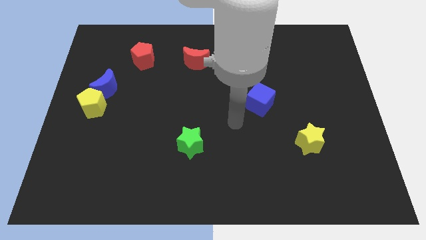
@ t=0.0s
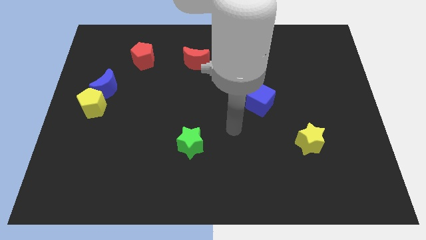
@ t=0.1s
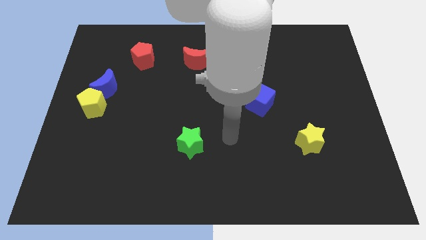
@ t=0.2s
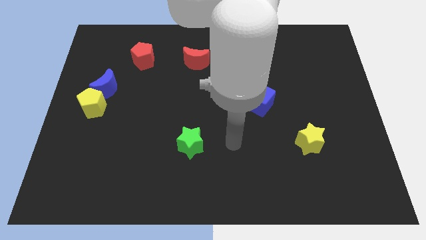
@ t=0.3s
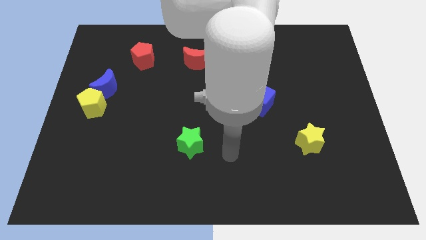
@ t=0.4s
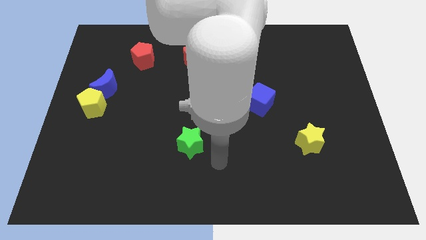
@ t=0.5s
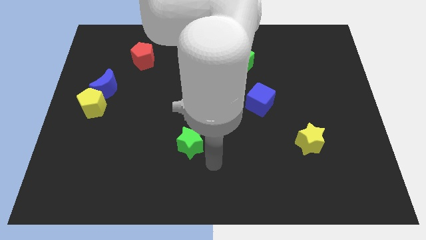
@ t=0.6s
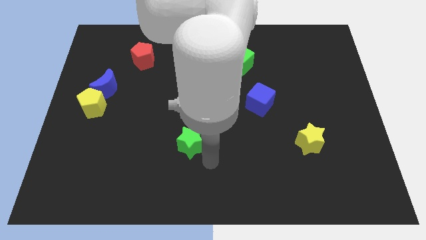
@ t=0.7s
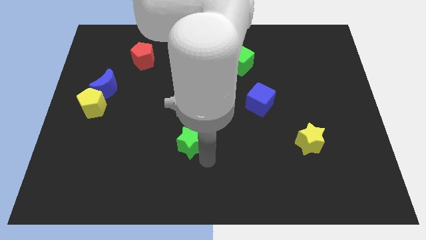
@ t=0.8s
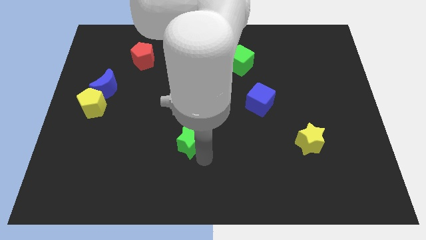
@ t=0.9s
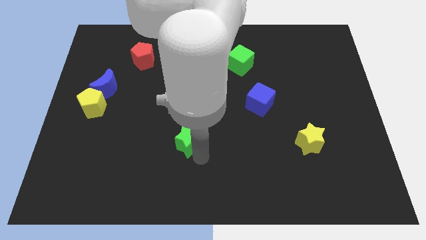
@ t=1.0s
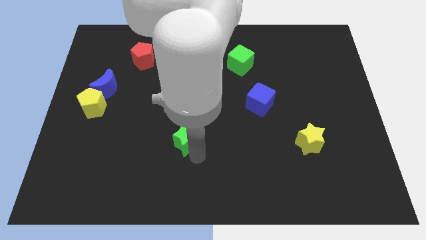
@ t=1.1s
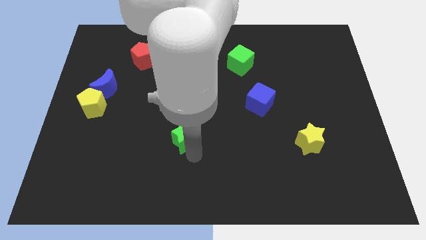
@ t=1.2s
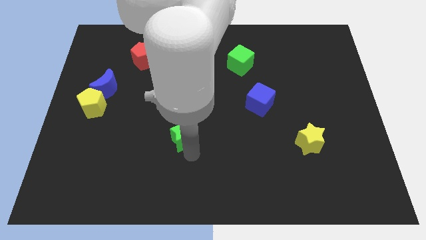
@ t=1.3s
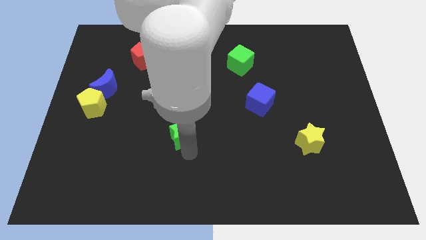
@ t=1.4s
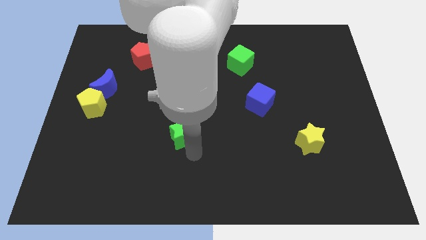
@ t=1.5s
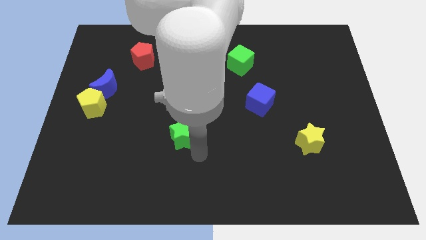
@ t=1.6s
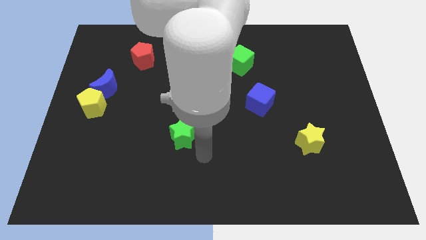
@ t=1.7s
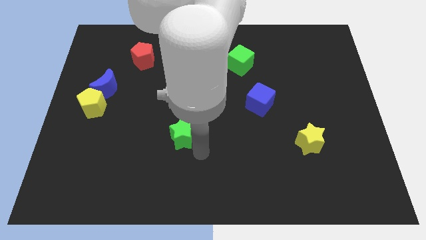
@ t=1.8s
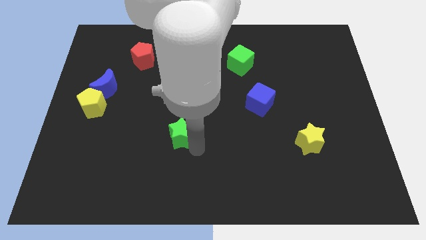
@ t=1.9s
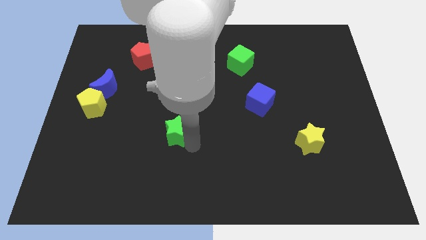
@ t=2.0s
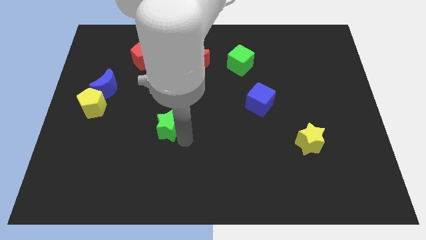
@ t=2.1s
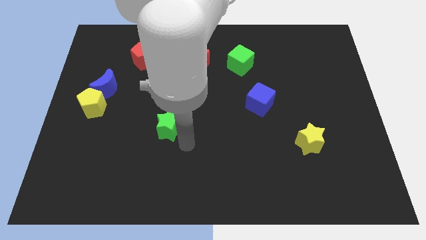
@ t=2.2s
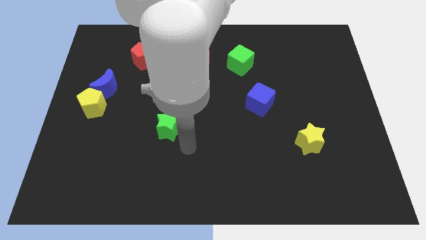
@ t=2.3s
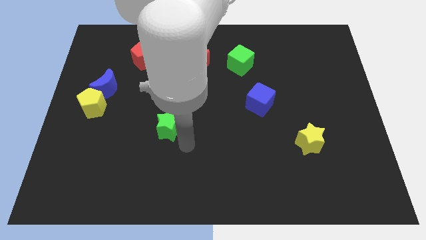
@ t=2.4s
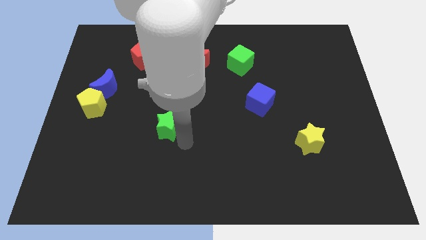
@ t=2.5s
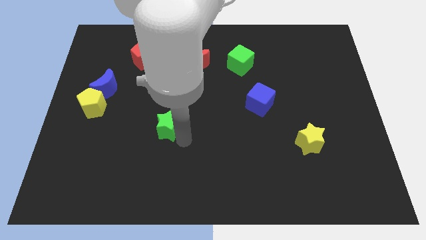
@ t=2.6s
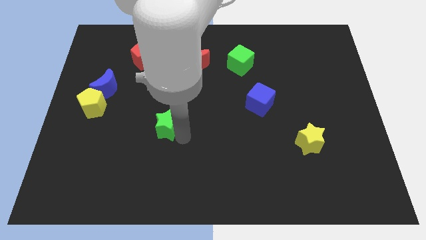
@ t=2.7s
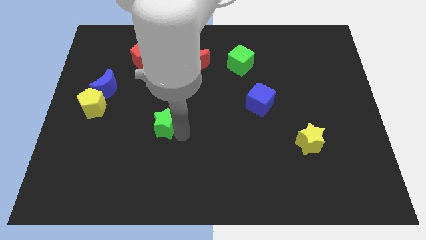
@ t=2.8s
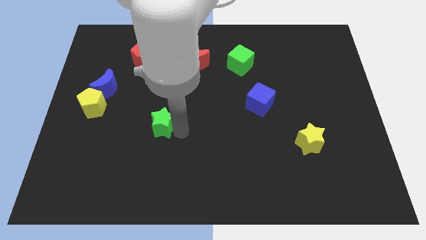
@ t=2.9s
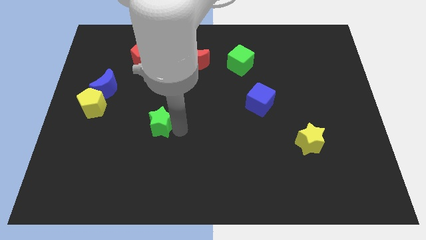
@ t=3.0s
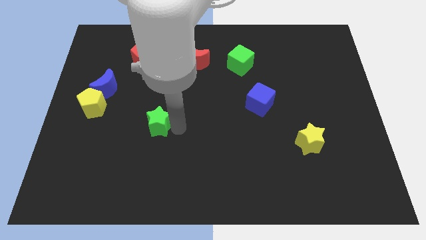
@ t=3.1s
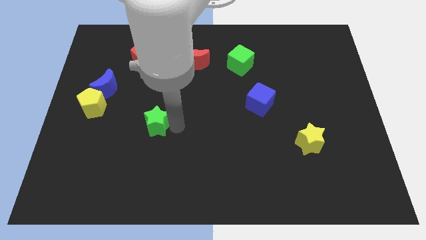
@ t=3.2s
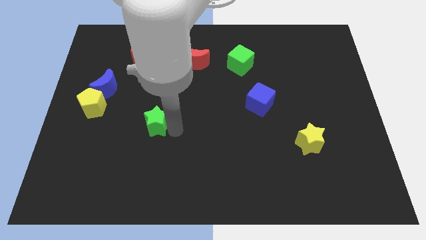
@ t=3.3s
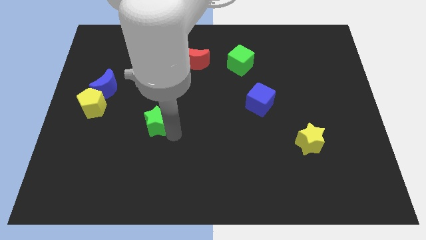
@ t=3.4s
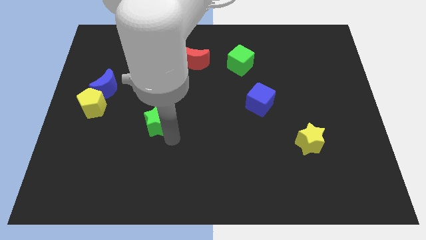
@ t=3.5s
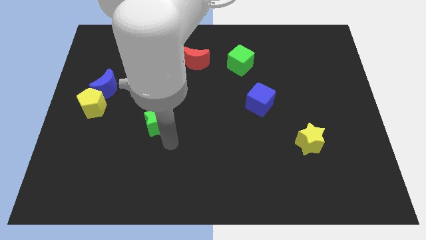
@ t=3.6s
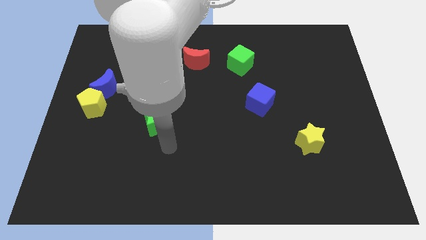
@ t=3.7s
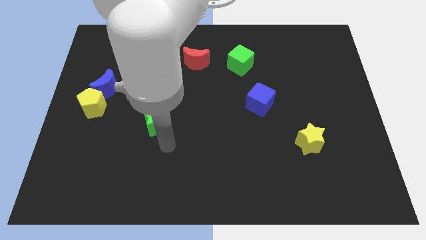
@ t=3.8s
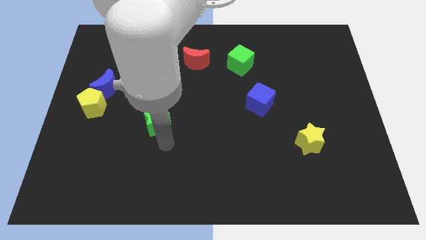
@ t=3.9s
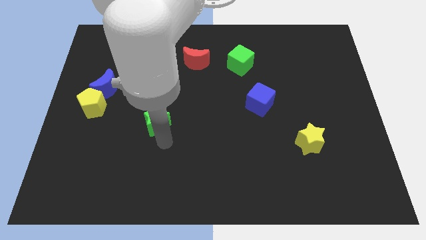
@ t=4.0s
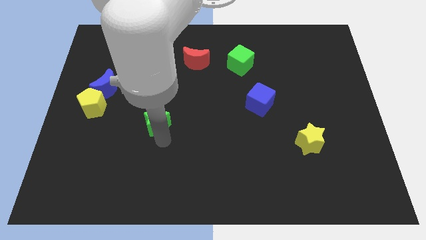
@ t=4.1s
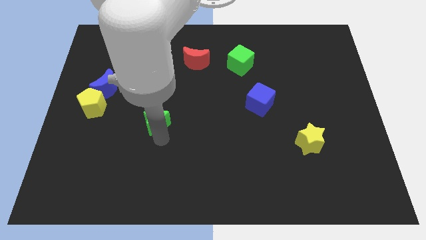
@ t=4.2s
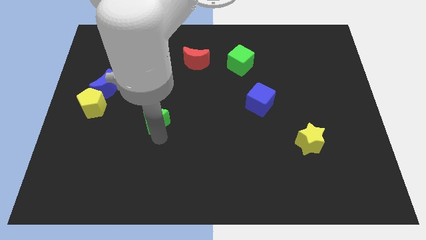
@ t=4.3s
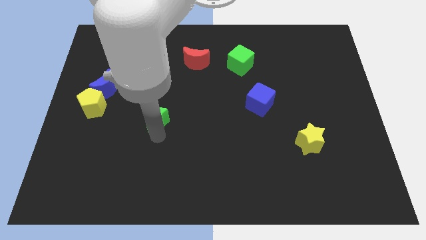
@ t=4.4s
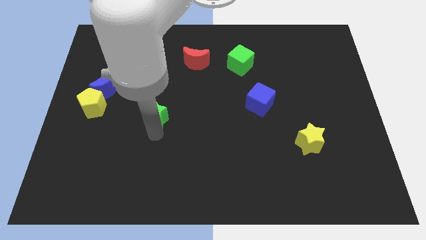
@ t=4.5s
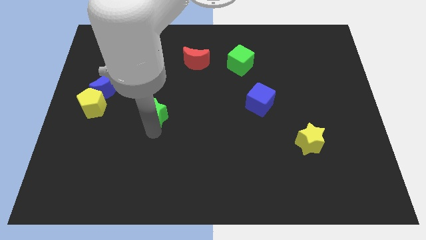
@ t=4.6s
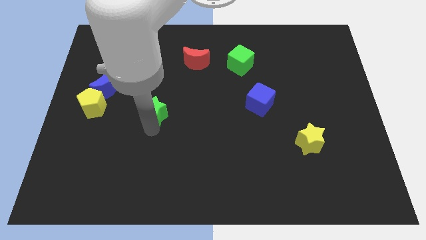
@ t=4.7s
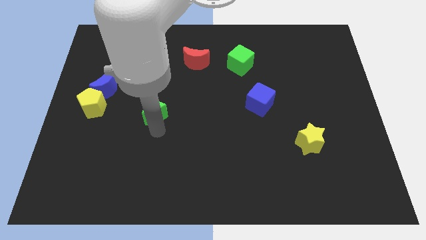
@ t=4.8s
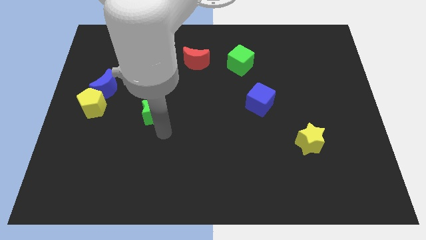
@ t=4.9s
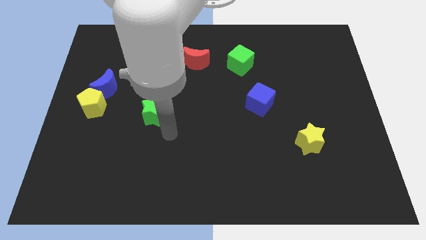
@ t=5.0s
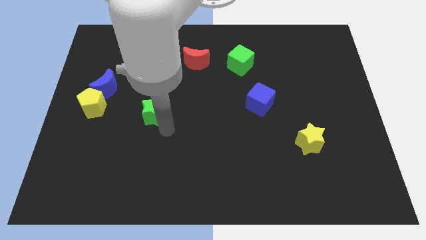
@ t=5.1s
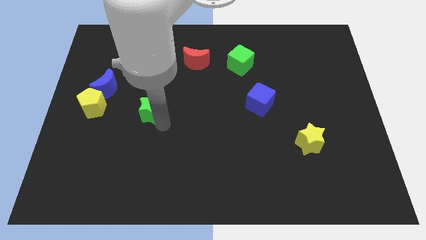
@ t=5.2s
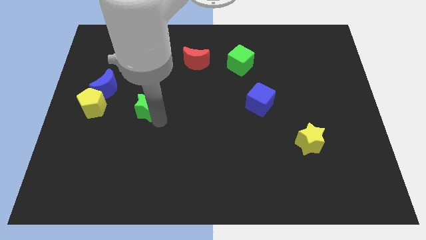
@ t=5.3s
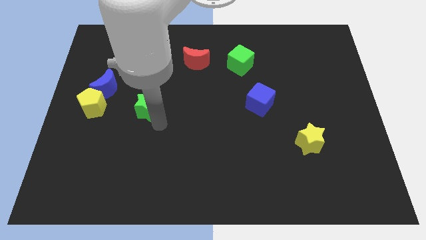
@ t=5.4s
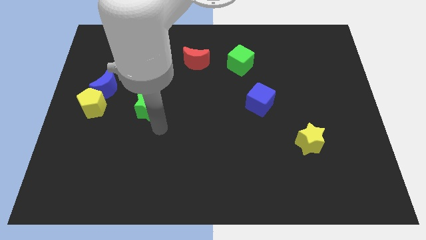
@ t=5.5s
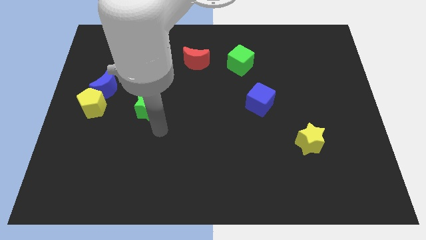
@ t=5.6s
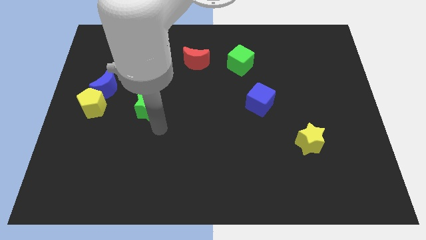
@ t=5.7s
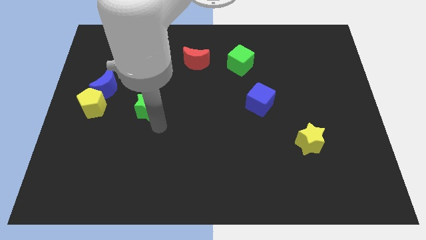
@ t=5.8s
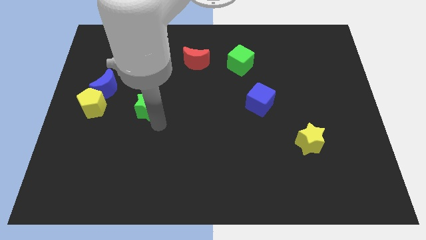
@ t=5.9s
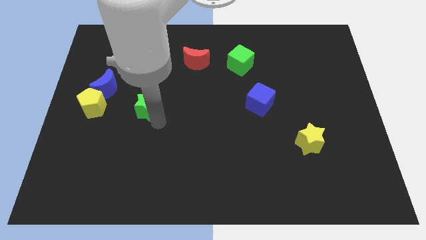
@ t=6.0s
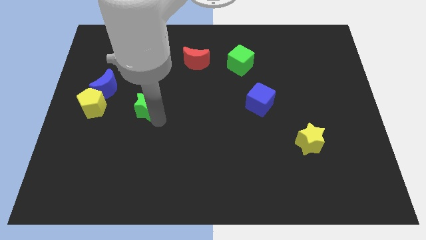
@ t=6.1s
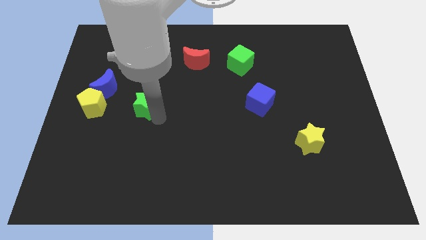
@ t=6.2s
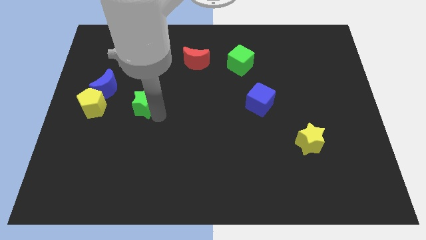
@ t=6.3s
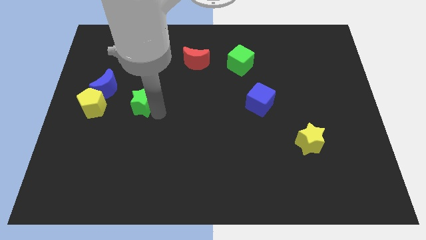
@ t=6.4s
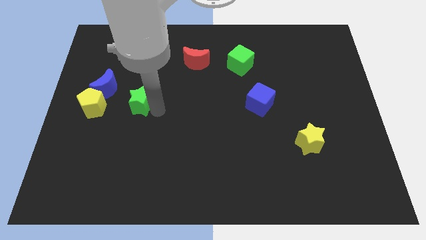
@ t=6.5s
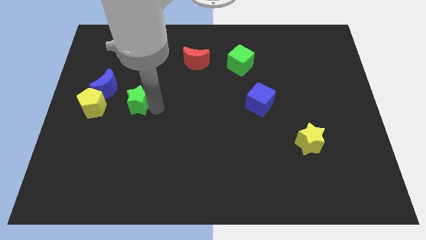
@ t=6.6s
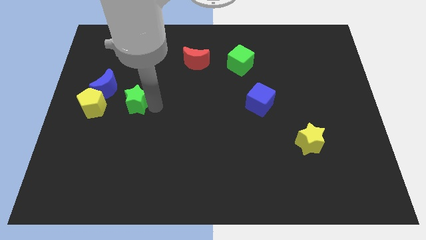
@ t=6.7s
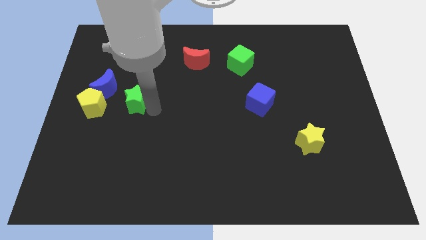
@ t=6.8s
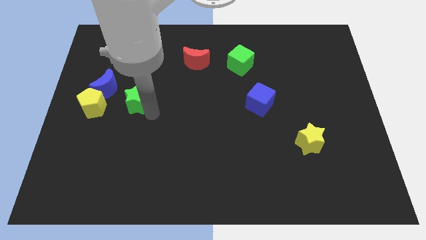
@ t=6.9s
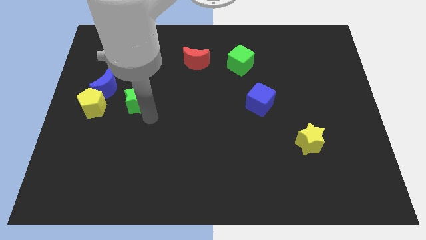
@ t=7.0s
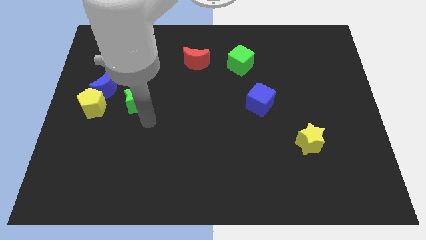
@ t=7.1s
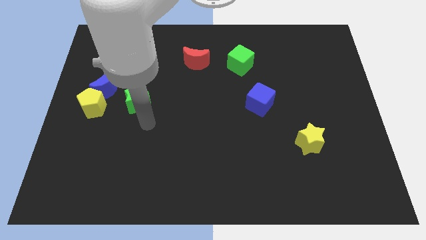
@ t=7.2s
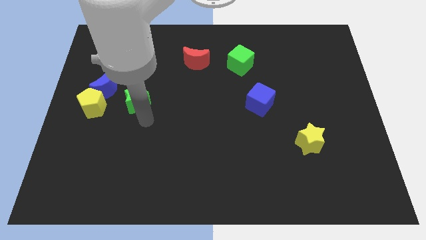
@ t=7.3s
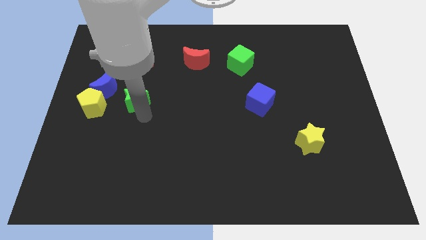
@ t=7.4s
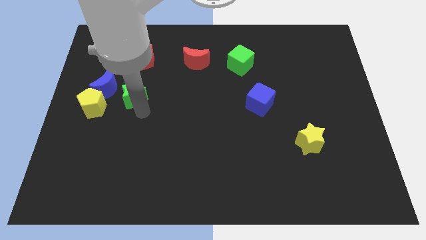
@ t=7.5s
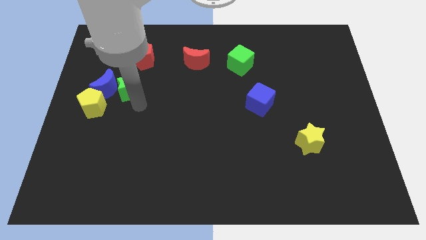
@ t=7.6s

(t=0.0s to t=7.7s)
push the green star upwards and to the left

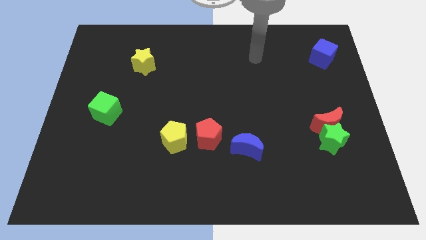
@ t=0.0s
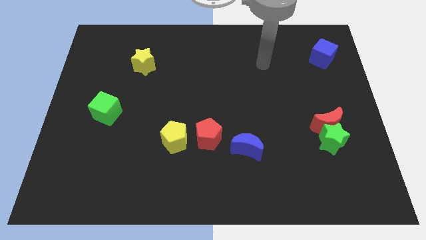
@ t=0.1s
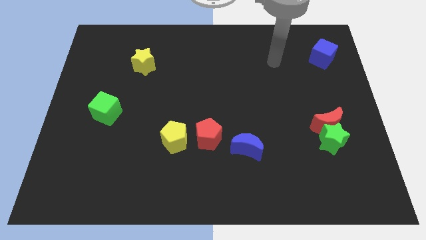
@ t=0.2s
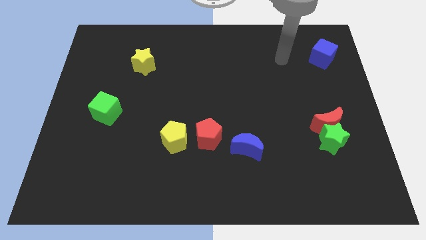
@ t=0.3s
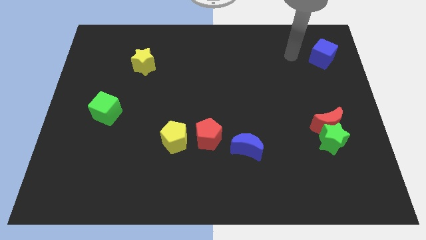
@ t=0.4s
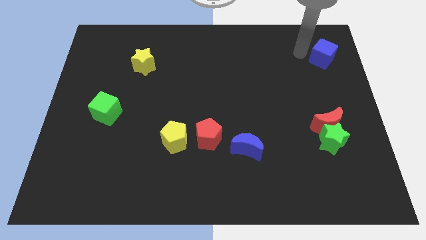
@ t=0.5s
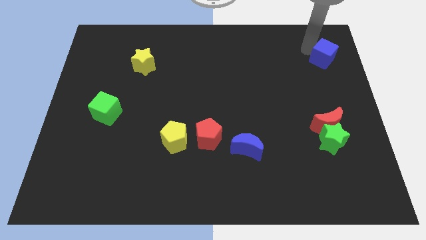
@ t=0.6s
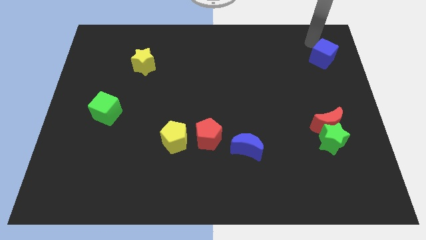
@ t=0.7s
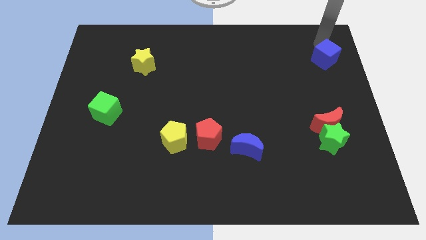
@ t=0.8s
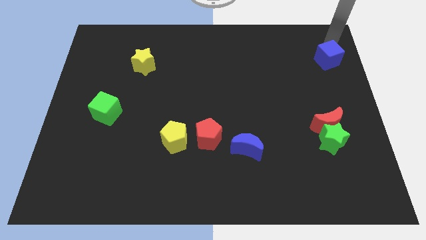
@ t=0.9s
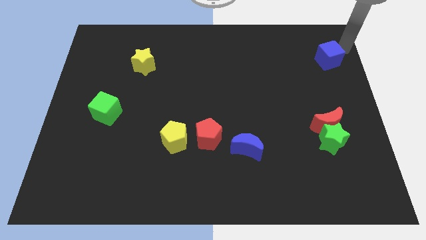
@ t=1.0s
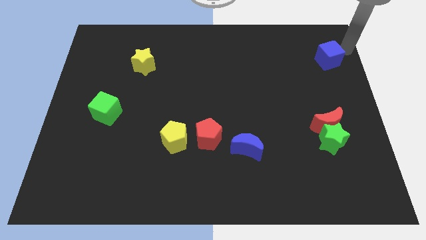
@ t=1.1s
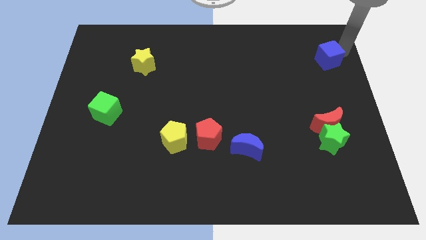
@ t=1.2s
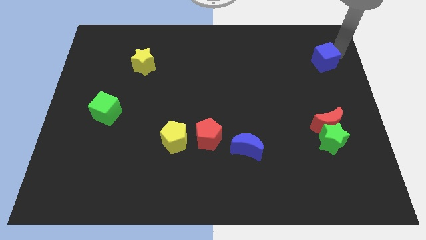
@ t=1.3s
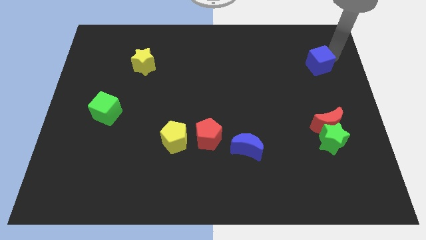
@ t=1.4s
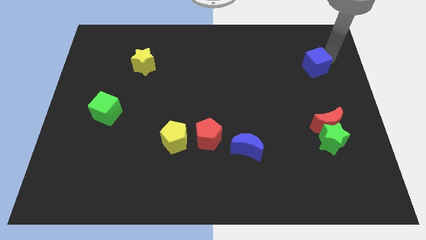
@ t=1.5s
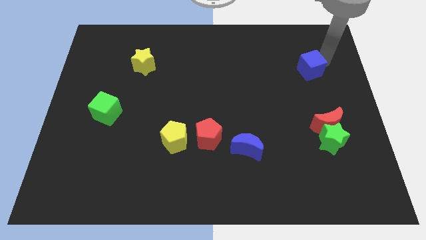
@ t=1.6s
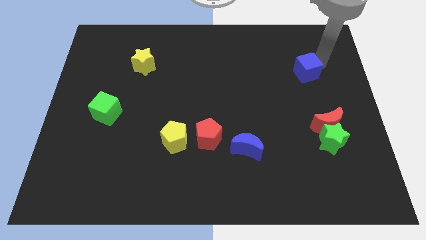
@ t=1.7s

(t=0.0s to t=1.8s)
slightly push the blue cube diagonally downwards and left
